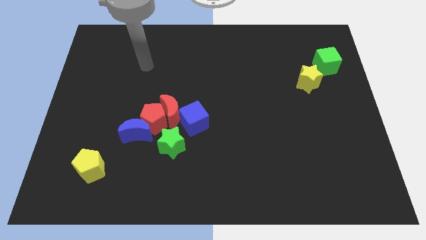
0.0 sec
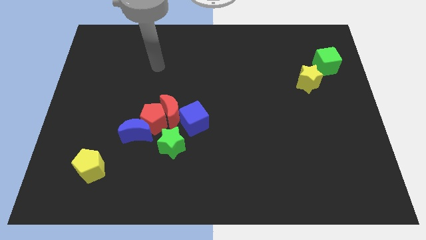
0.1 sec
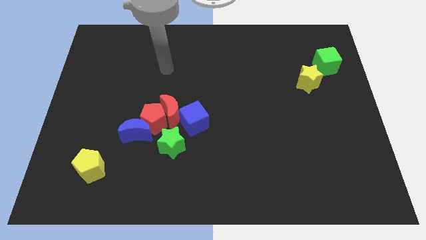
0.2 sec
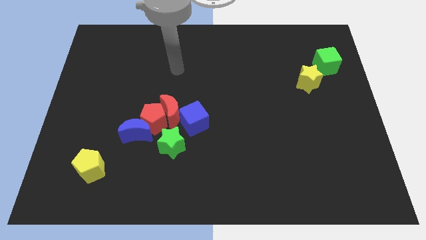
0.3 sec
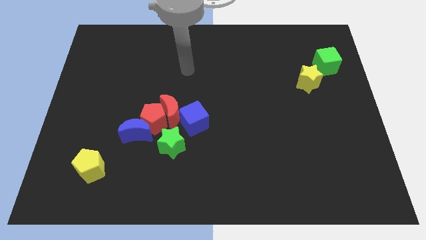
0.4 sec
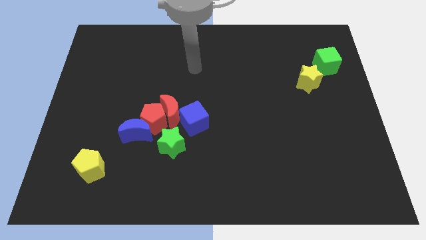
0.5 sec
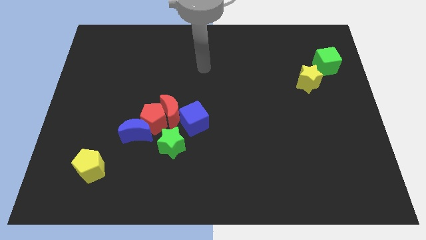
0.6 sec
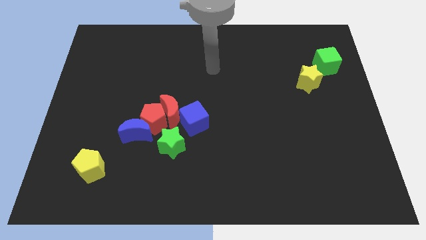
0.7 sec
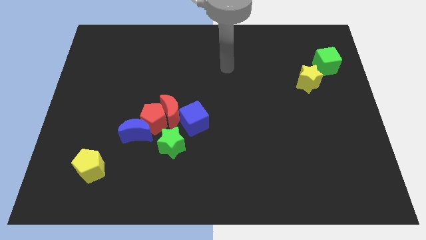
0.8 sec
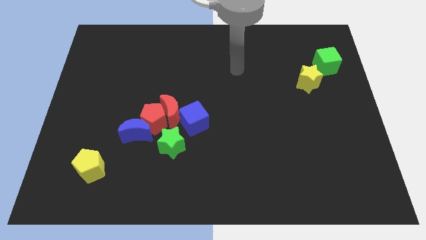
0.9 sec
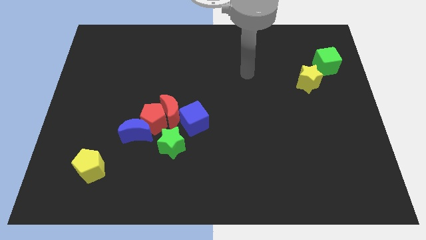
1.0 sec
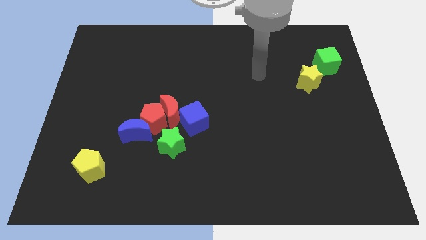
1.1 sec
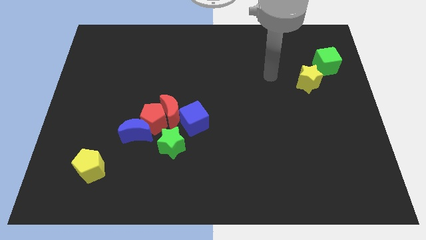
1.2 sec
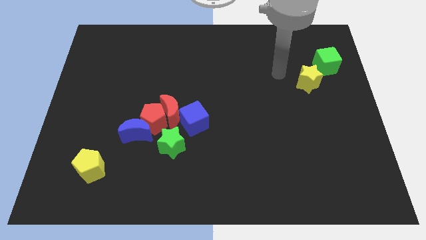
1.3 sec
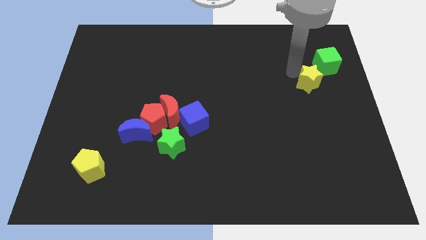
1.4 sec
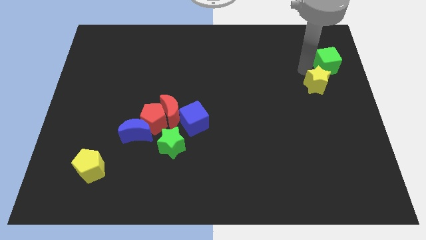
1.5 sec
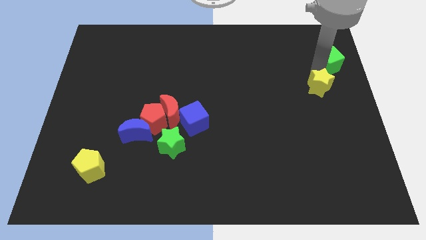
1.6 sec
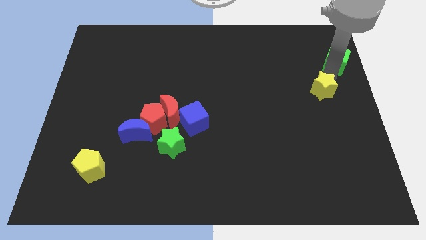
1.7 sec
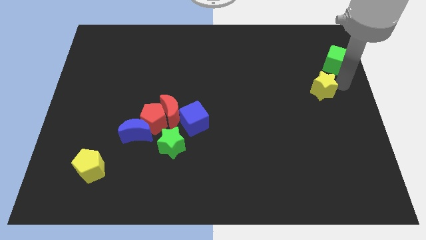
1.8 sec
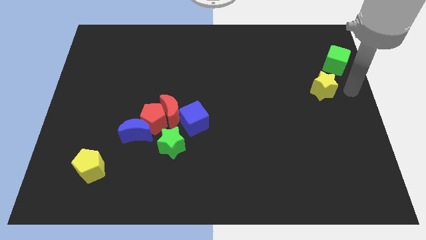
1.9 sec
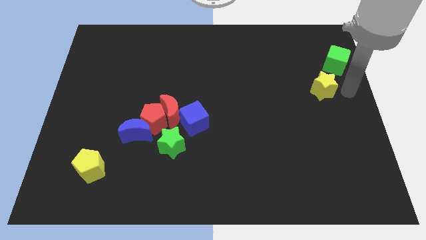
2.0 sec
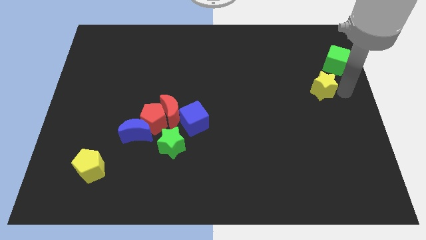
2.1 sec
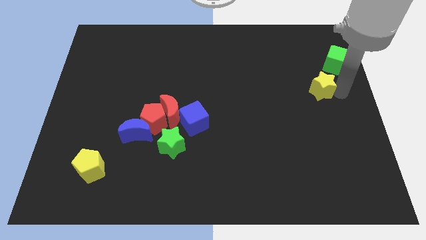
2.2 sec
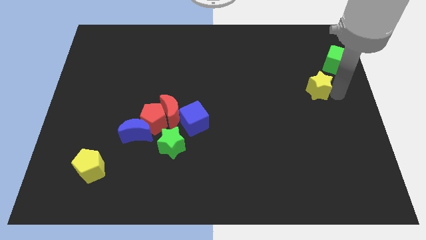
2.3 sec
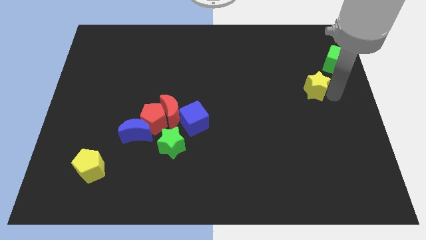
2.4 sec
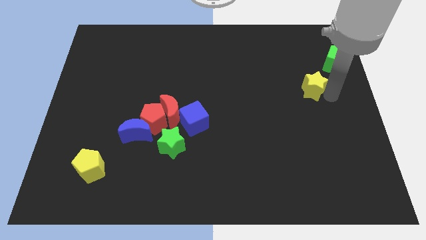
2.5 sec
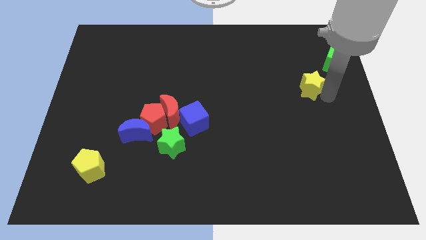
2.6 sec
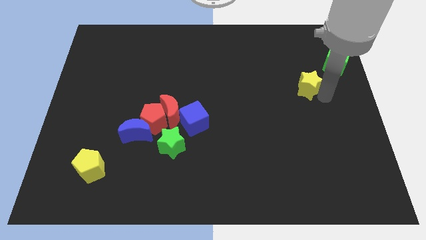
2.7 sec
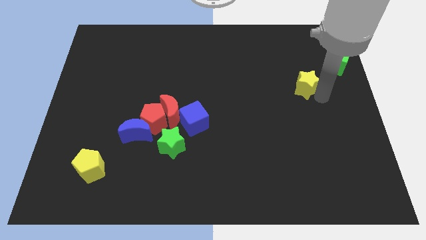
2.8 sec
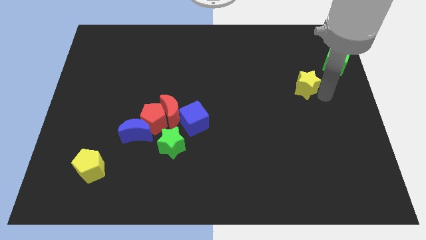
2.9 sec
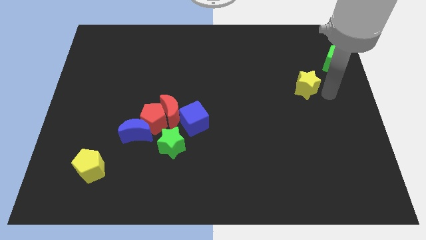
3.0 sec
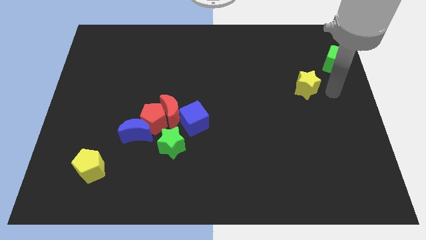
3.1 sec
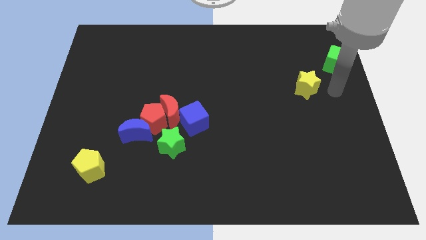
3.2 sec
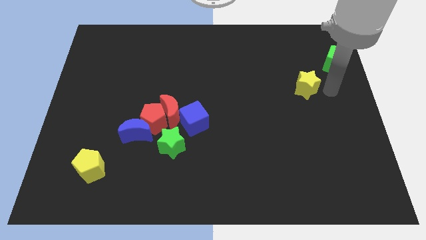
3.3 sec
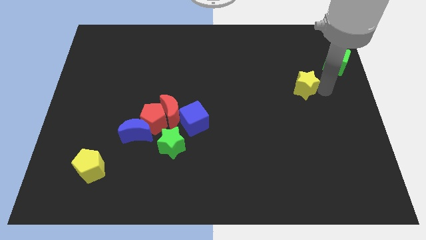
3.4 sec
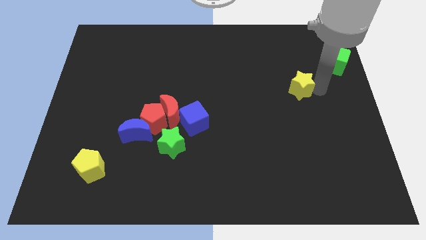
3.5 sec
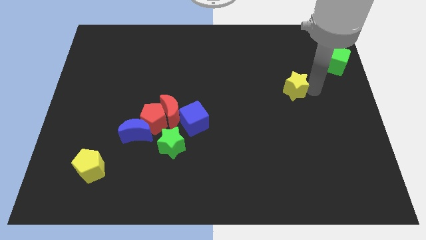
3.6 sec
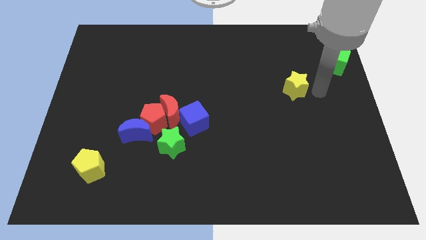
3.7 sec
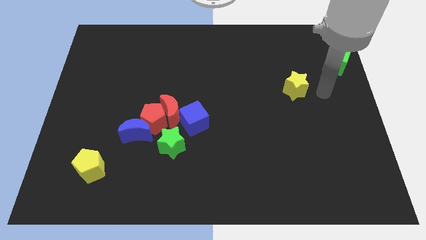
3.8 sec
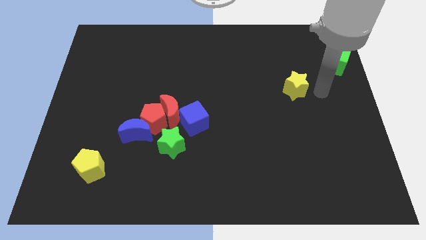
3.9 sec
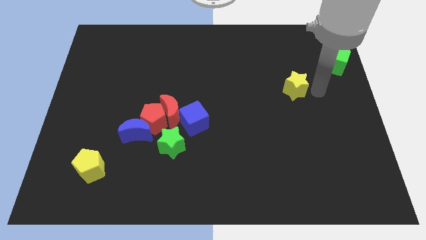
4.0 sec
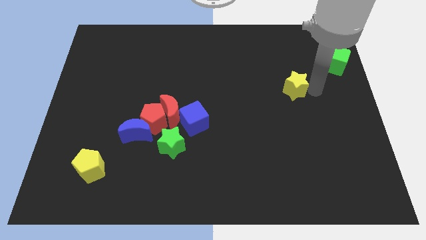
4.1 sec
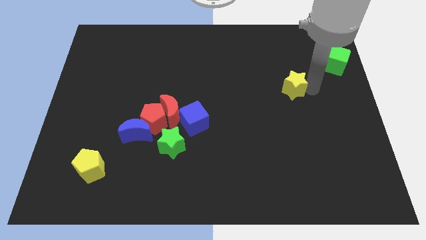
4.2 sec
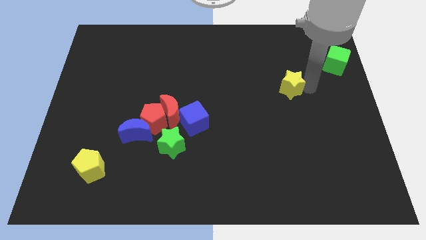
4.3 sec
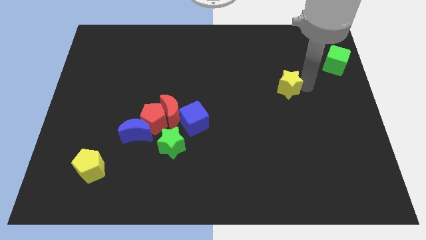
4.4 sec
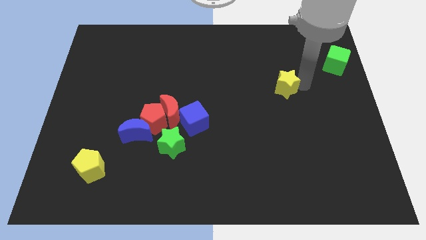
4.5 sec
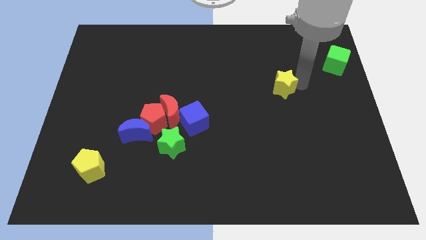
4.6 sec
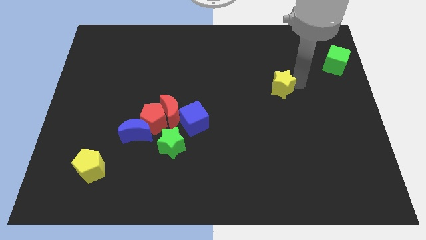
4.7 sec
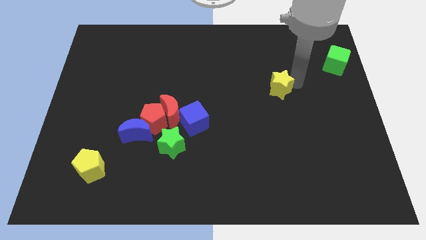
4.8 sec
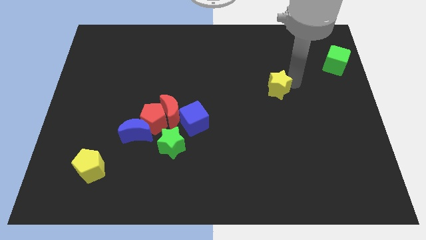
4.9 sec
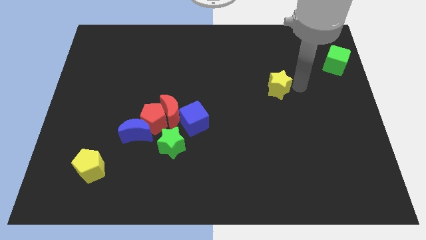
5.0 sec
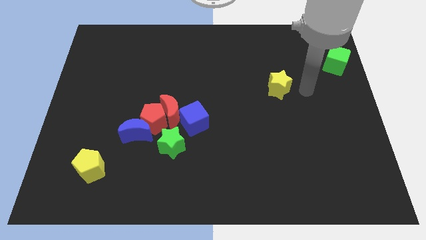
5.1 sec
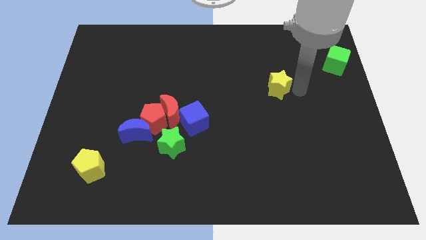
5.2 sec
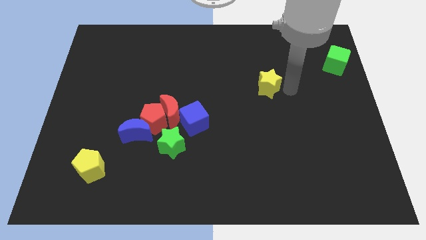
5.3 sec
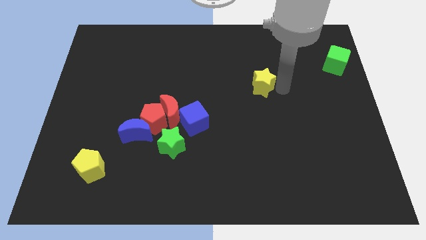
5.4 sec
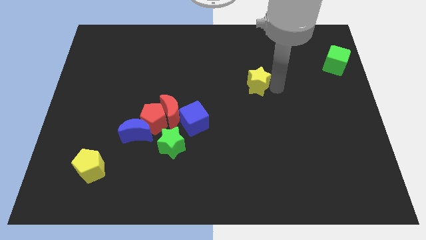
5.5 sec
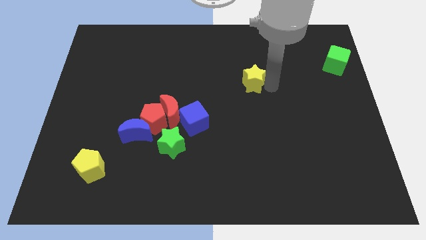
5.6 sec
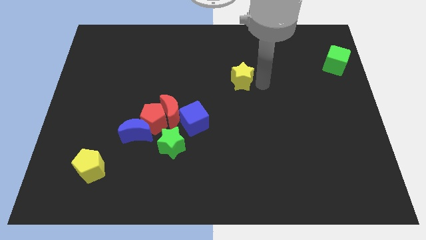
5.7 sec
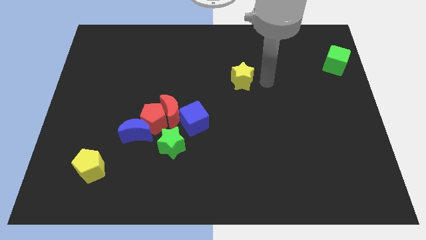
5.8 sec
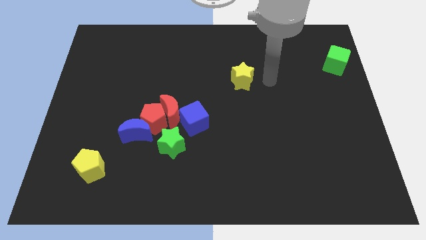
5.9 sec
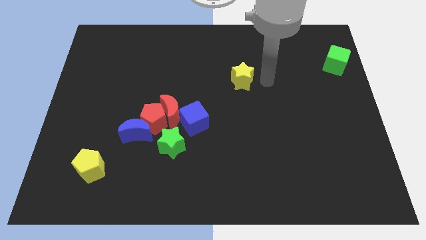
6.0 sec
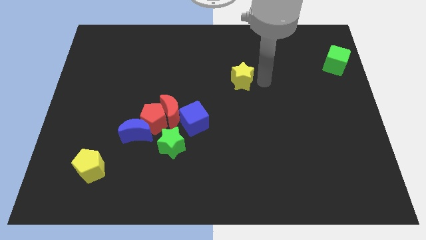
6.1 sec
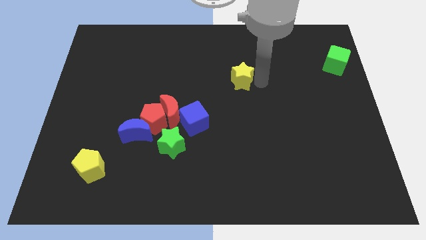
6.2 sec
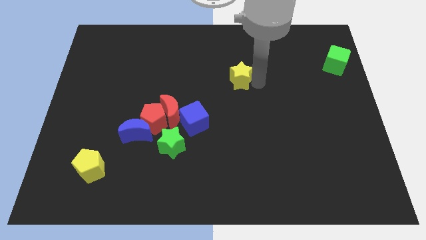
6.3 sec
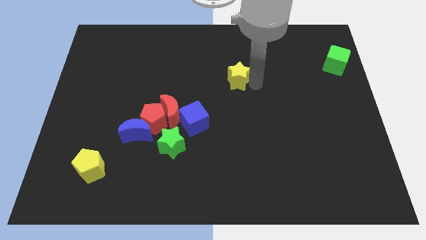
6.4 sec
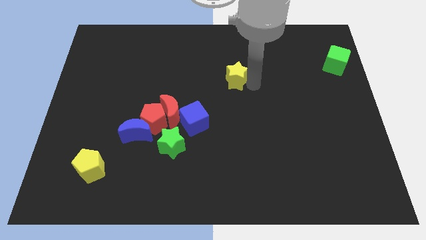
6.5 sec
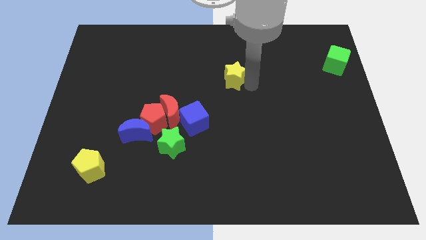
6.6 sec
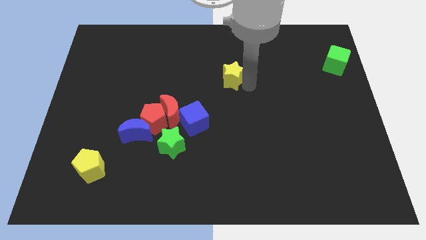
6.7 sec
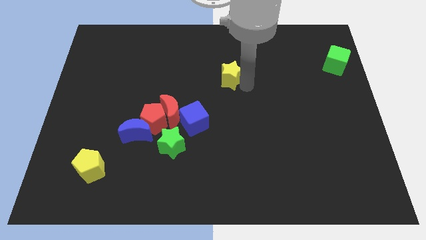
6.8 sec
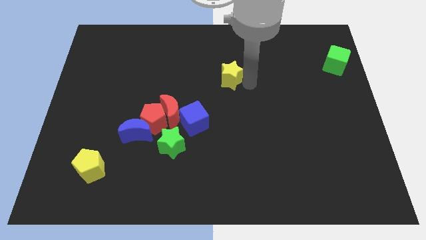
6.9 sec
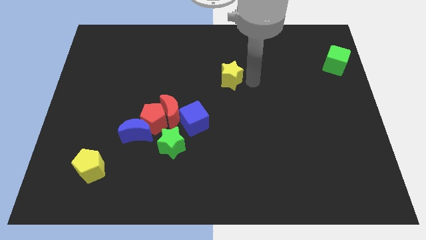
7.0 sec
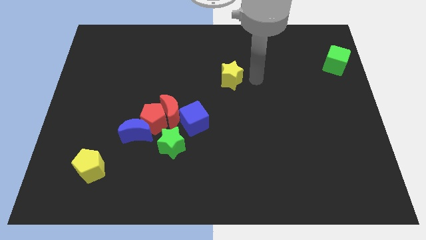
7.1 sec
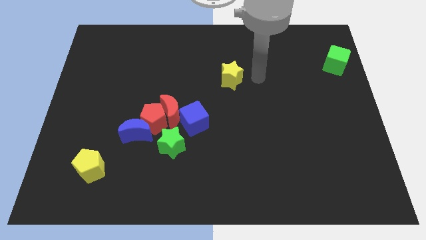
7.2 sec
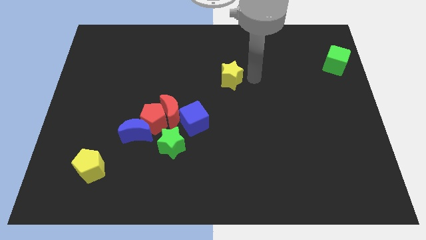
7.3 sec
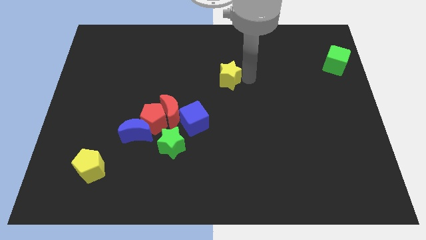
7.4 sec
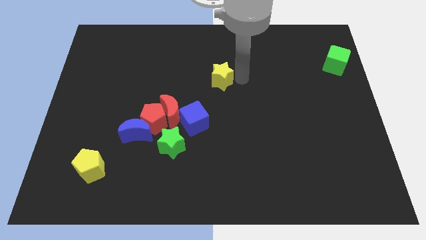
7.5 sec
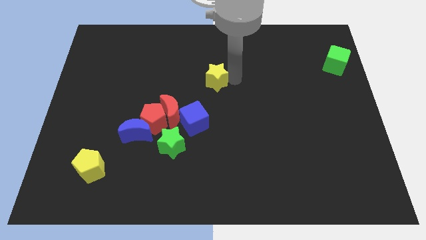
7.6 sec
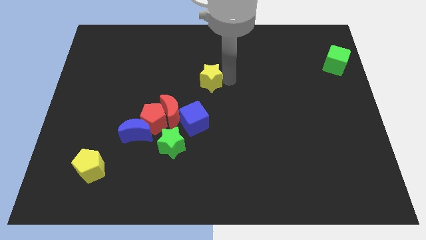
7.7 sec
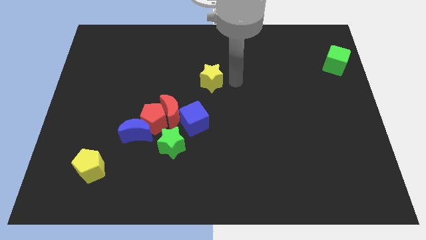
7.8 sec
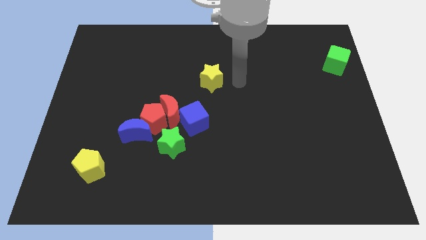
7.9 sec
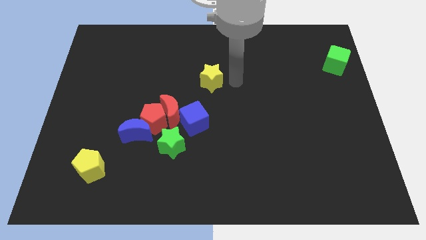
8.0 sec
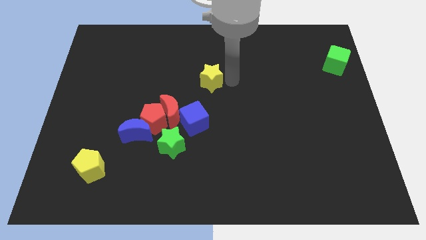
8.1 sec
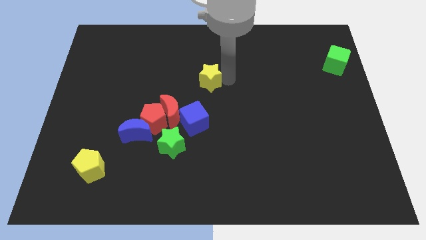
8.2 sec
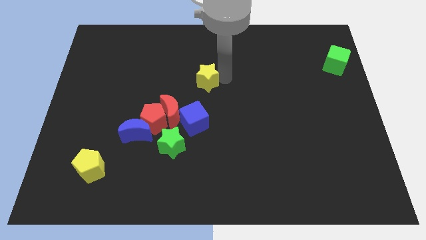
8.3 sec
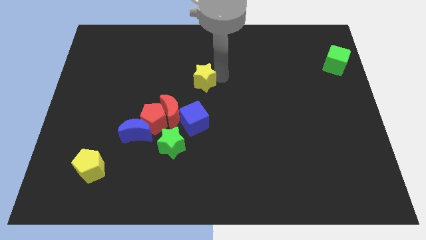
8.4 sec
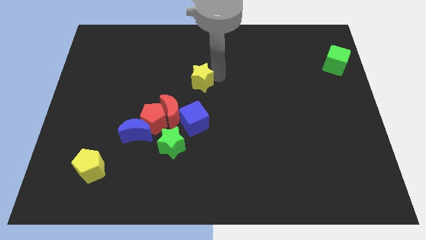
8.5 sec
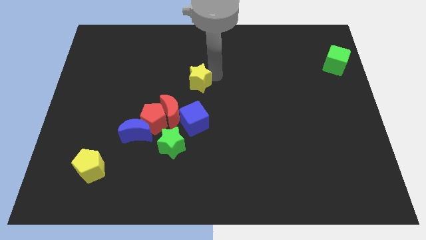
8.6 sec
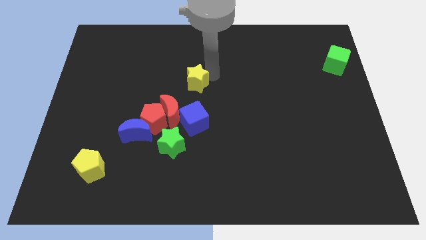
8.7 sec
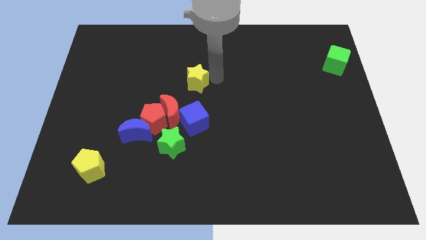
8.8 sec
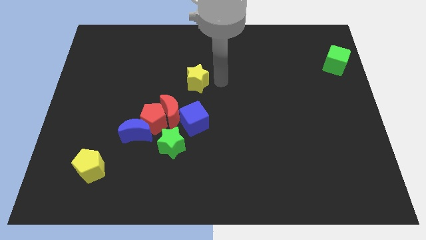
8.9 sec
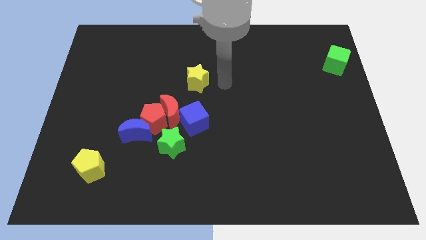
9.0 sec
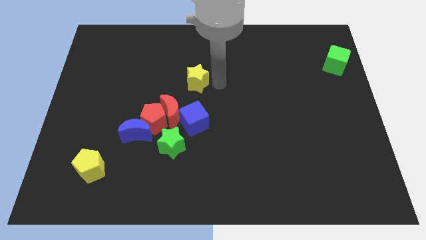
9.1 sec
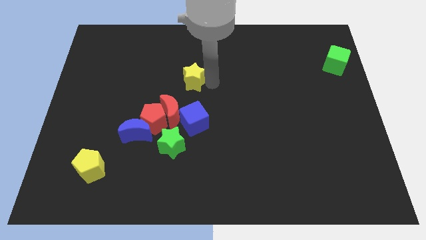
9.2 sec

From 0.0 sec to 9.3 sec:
slide the yellow star to the top side of the red moon
